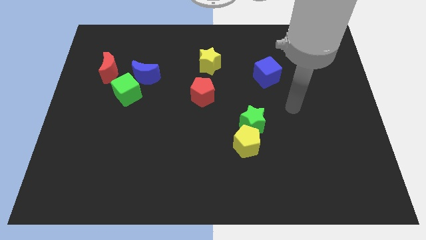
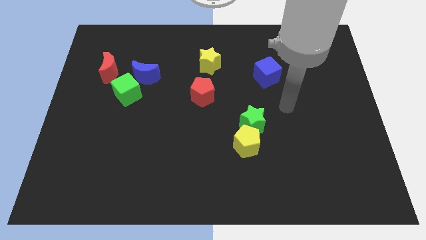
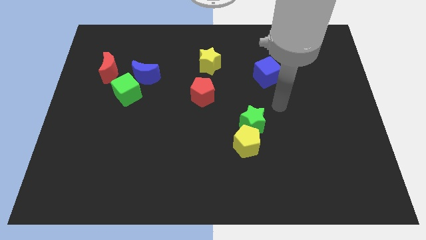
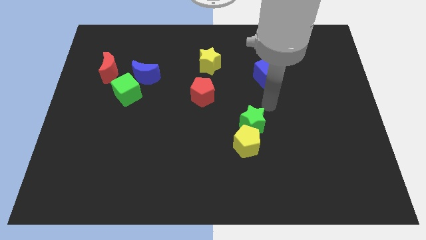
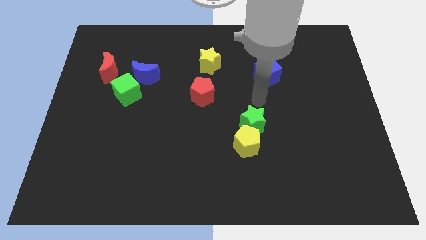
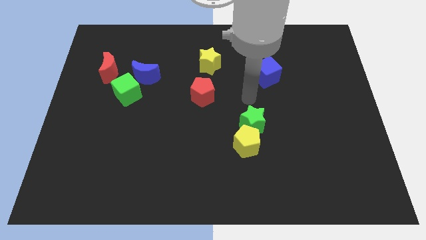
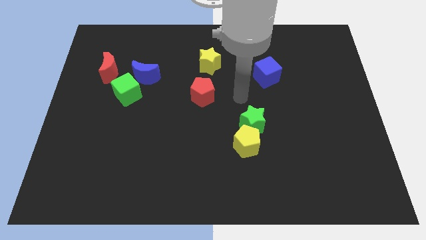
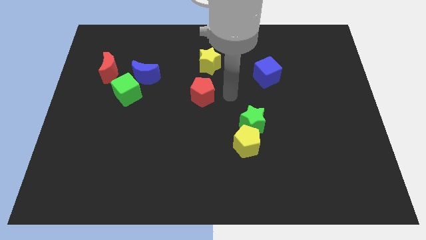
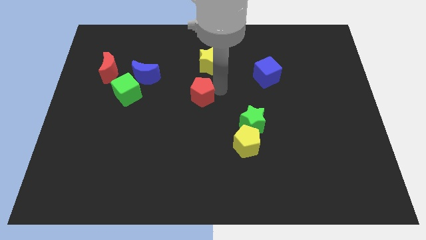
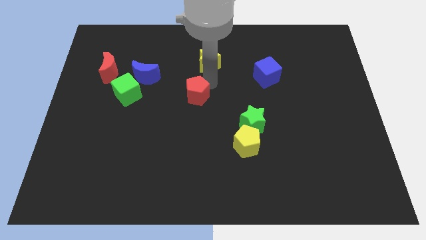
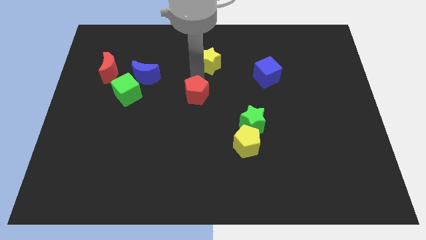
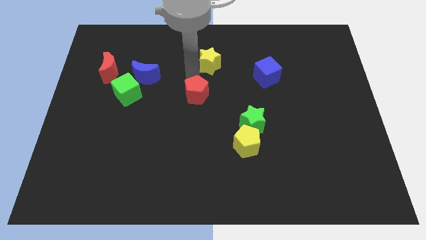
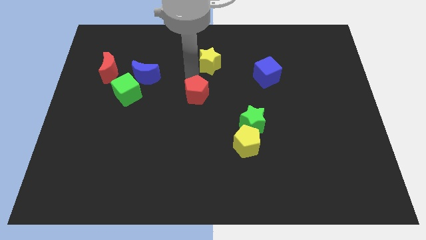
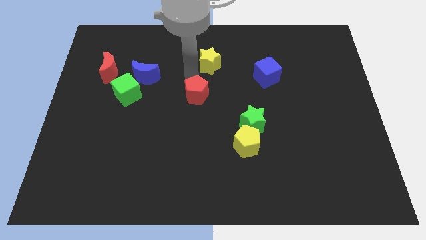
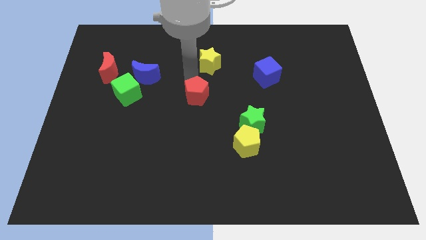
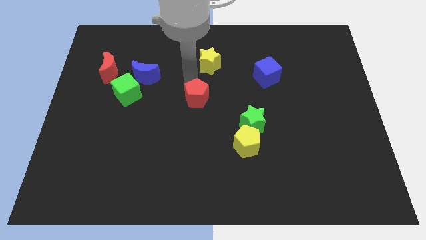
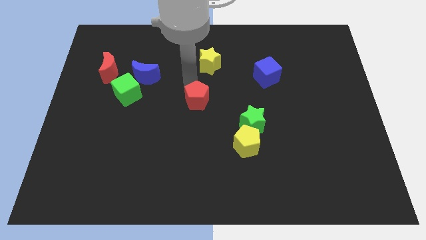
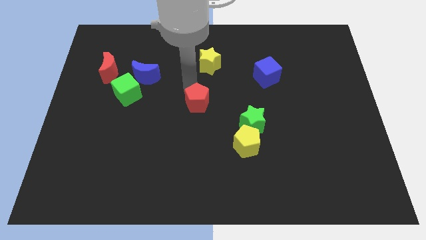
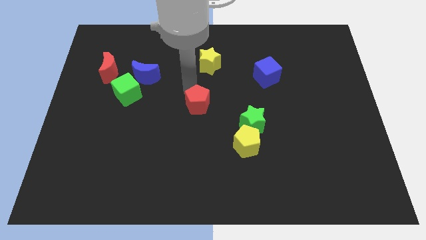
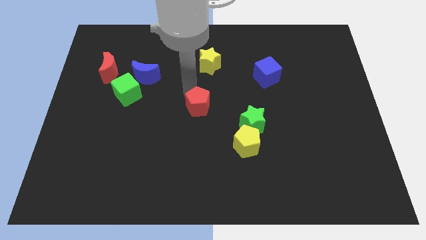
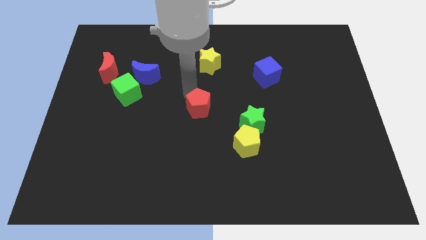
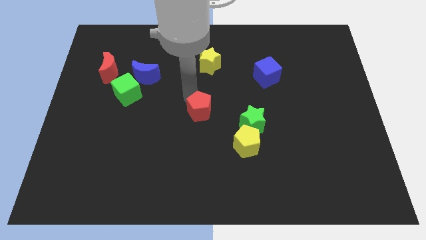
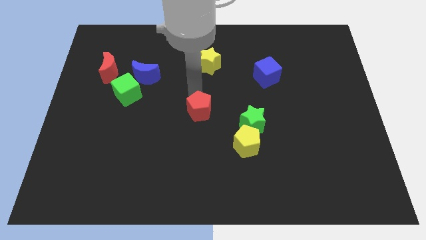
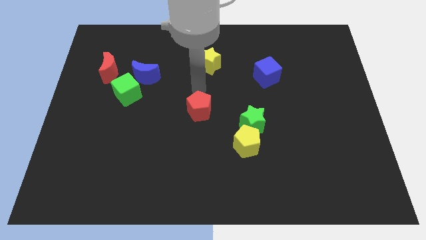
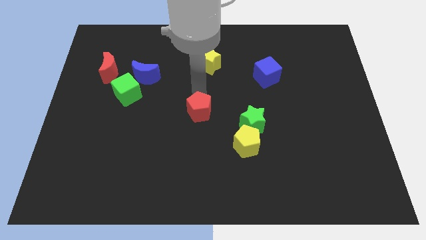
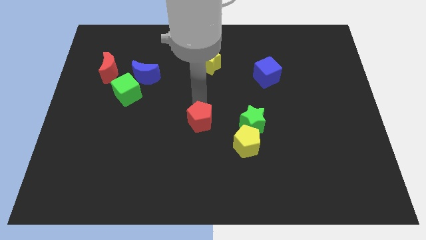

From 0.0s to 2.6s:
push the red pentagon somewhat down

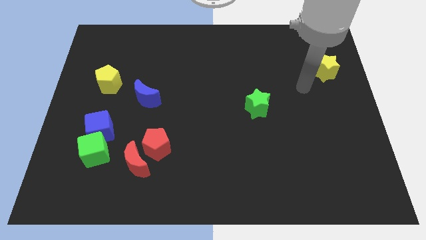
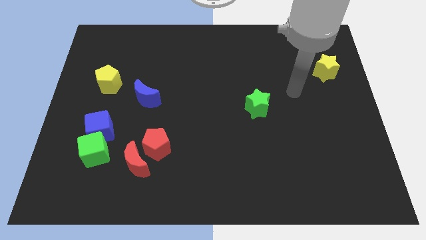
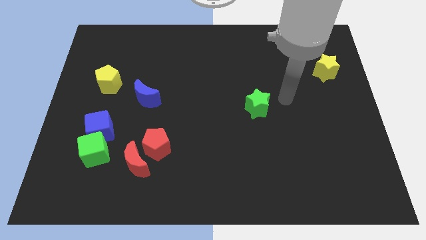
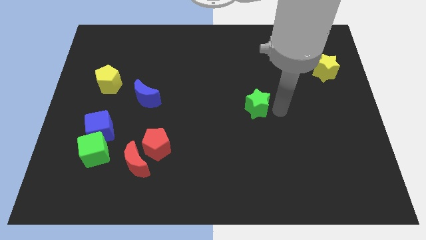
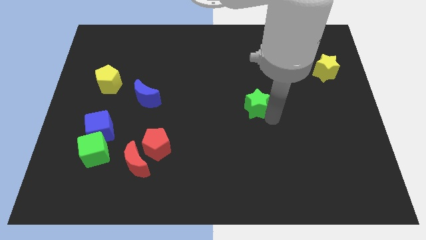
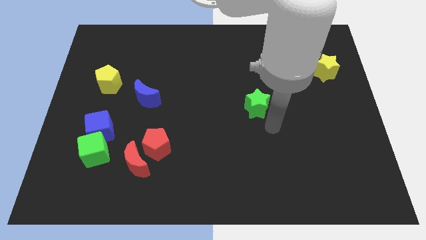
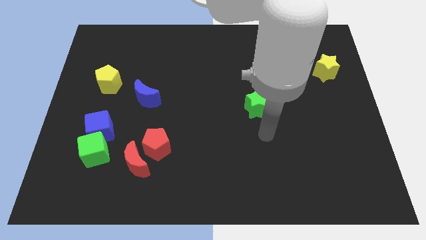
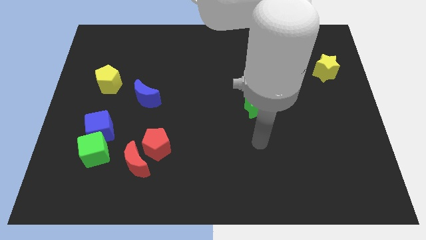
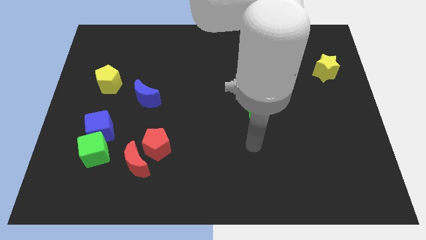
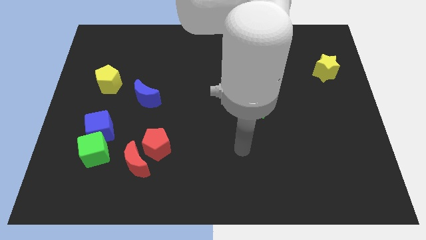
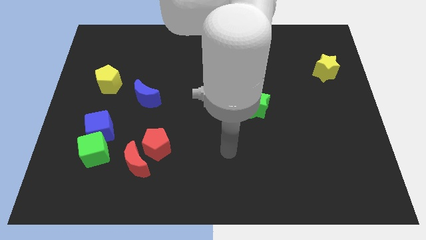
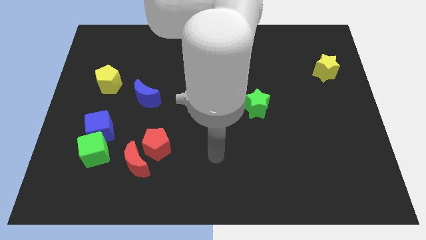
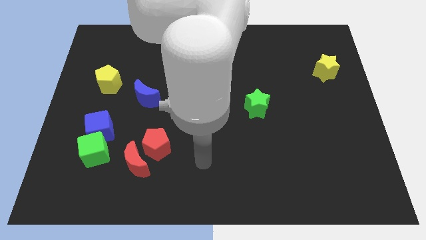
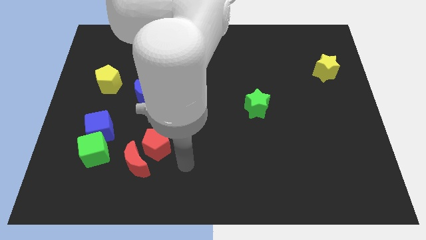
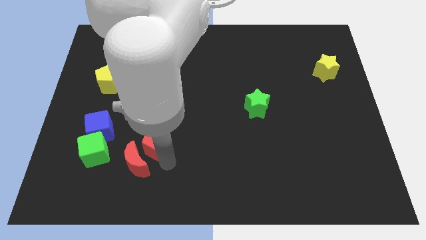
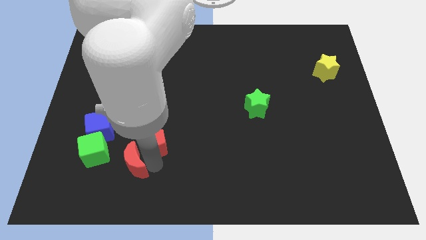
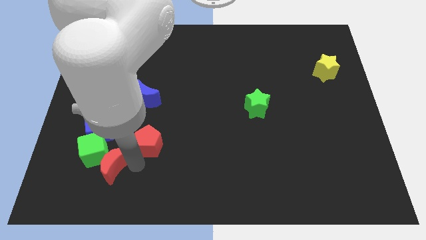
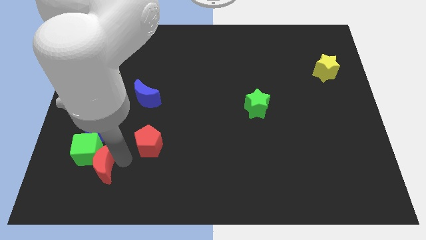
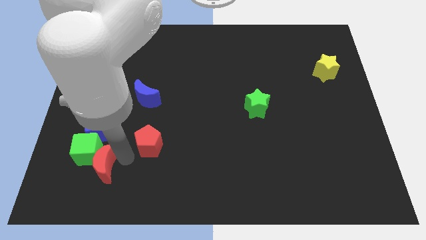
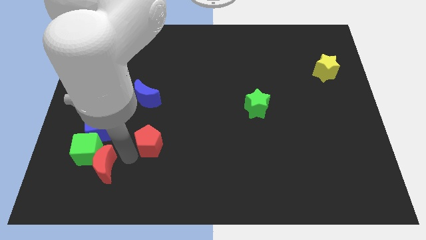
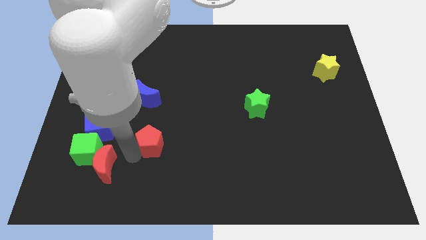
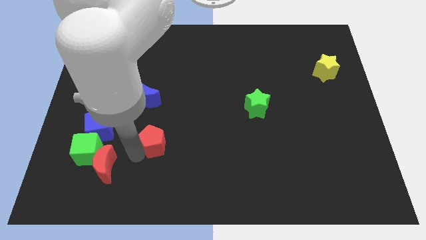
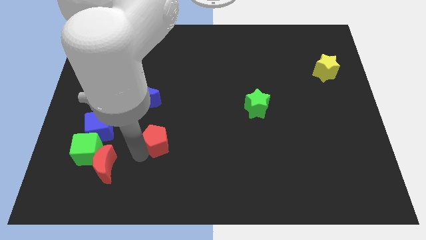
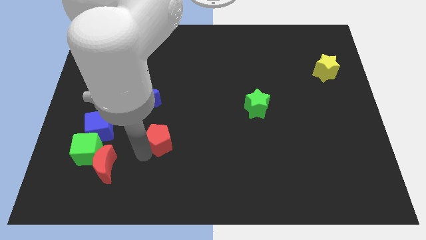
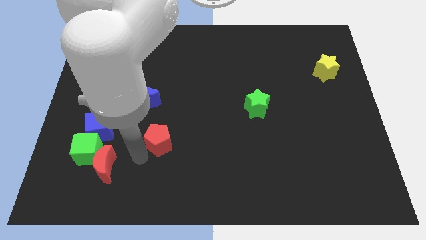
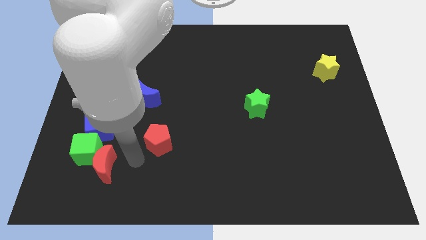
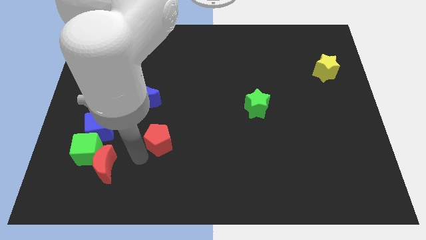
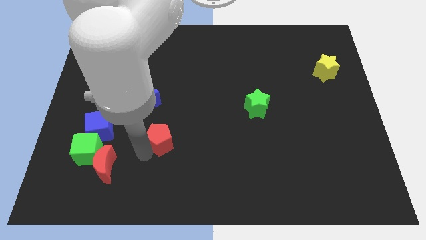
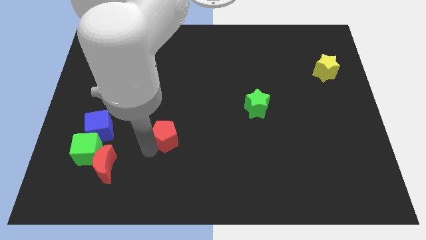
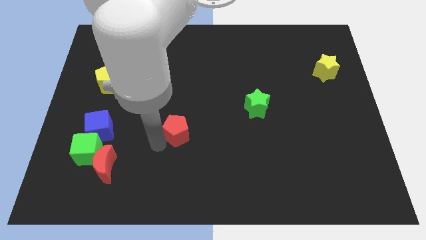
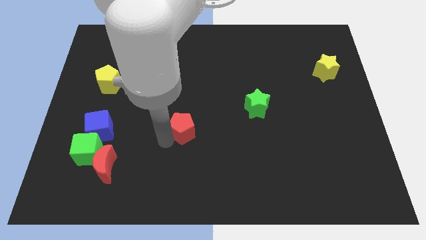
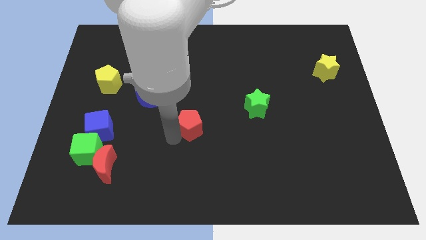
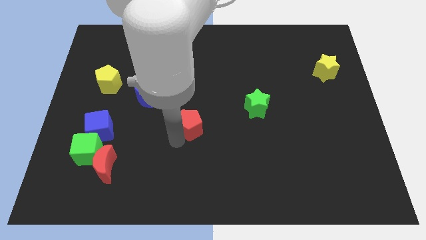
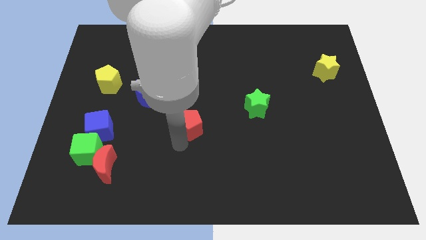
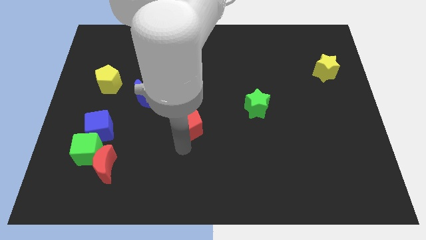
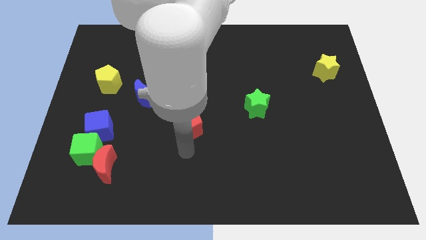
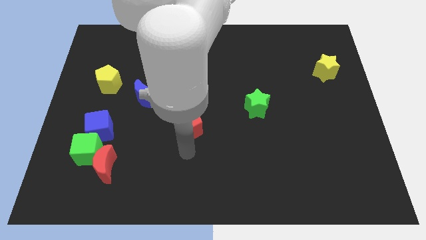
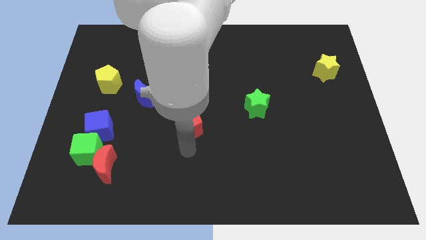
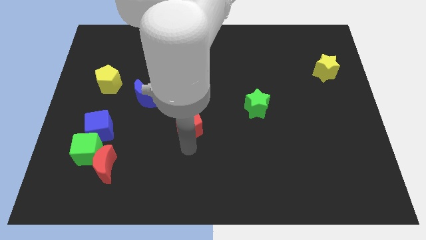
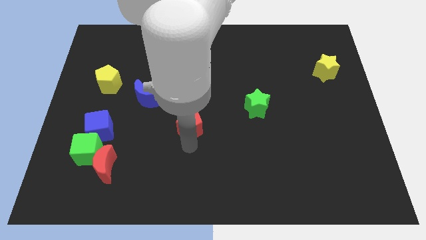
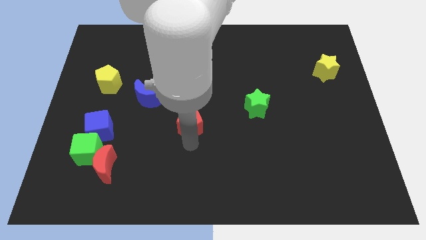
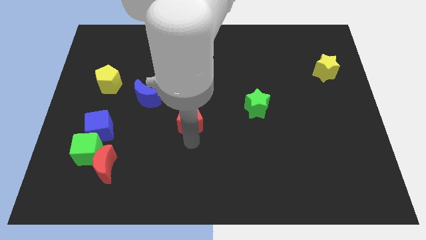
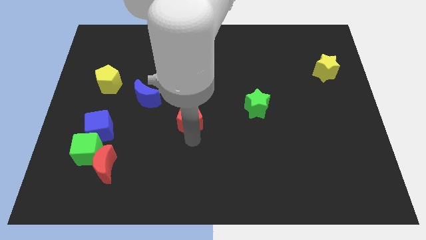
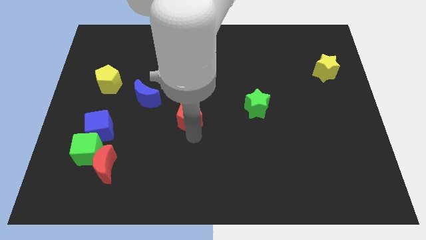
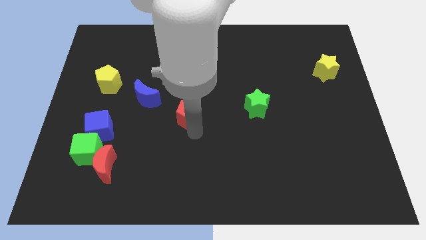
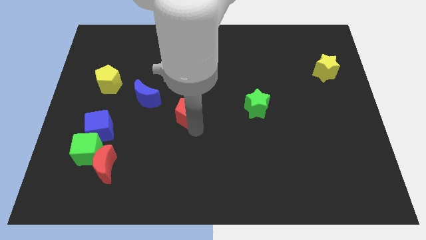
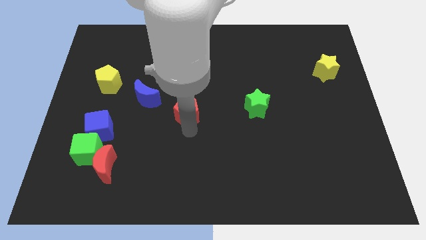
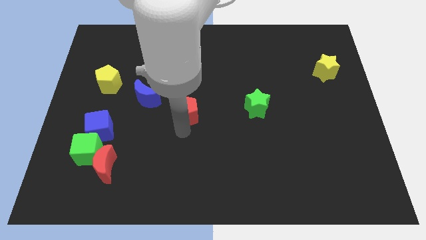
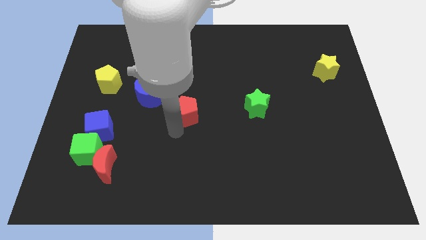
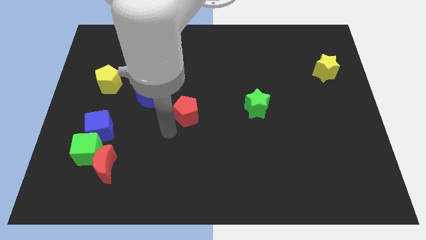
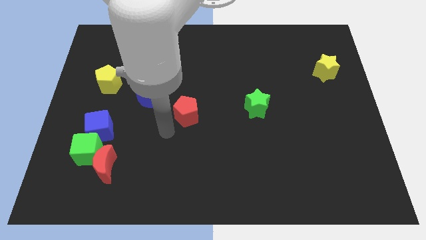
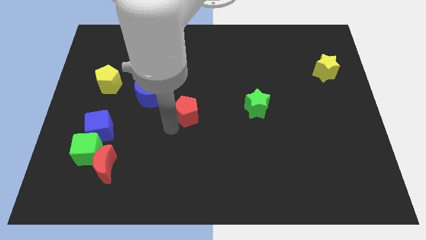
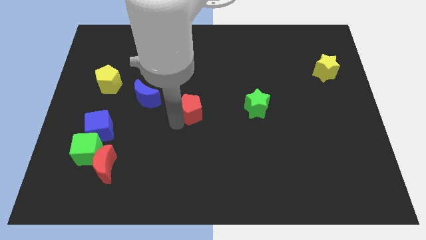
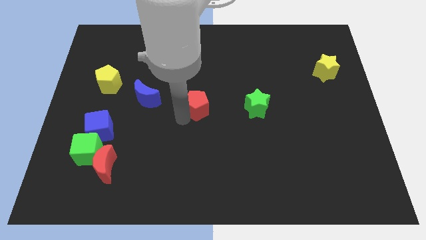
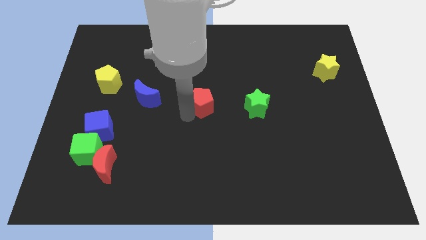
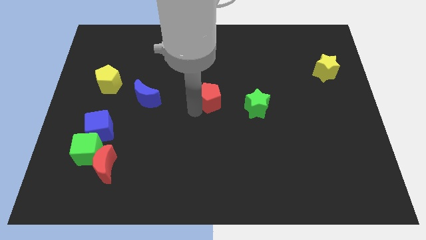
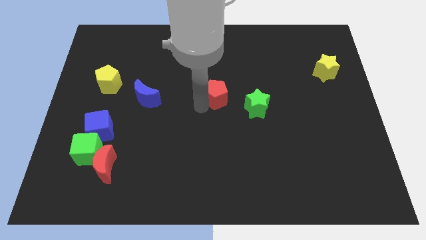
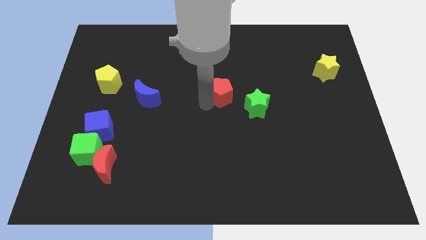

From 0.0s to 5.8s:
slide the red pentagon upwards and to the right
